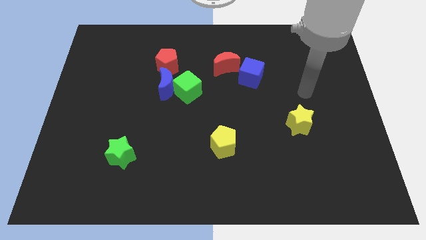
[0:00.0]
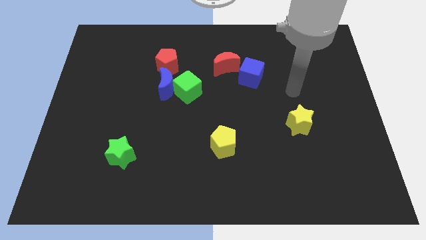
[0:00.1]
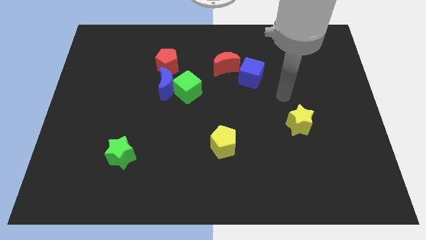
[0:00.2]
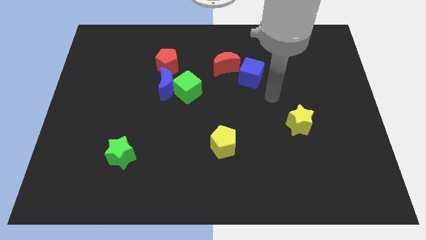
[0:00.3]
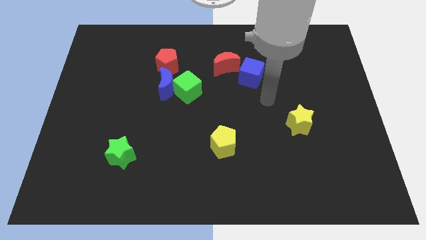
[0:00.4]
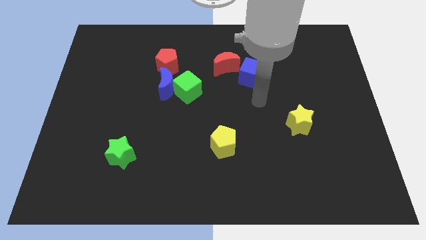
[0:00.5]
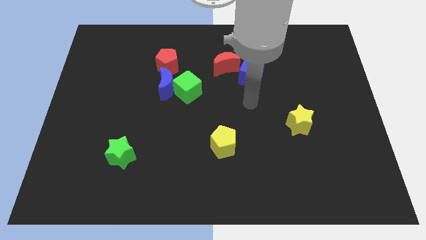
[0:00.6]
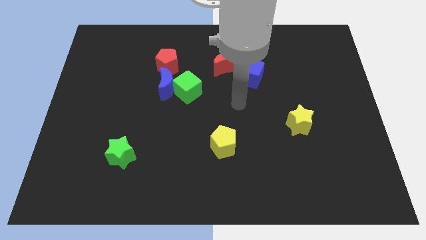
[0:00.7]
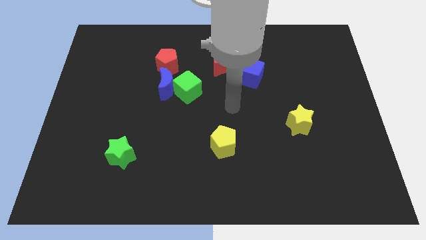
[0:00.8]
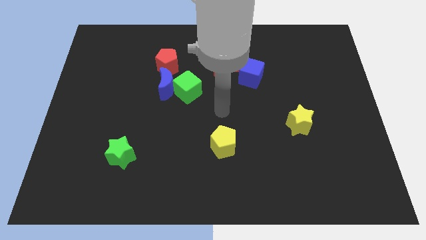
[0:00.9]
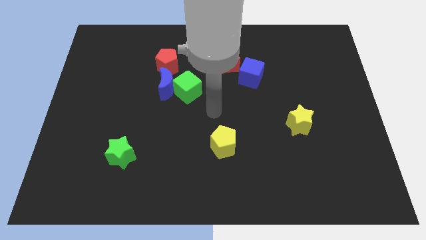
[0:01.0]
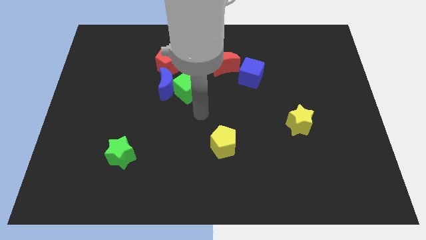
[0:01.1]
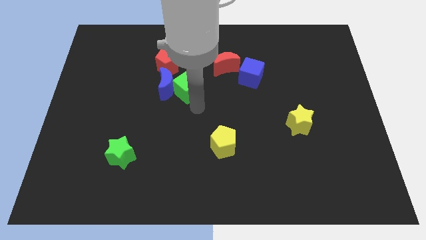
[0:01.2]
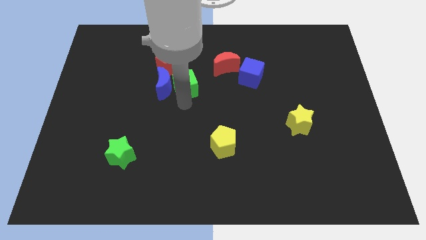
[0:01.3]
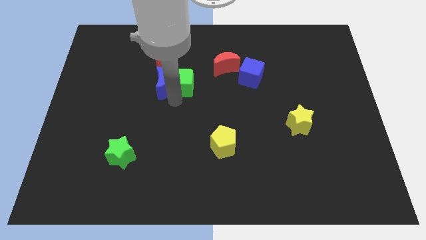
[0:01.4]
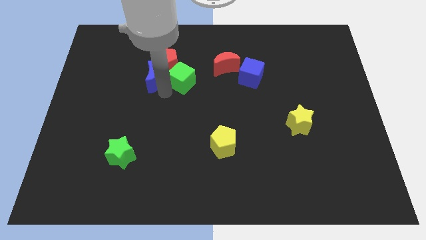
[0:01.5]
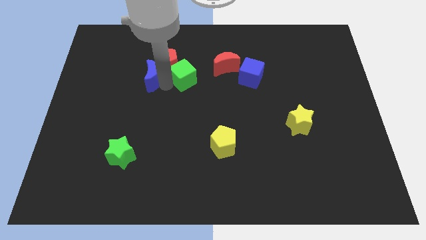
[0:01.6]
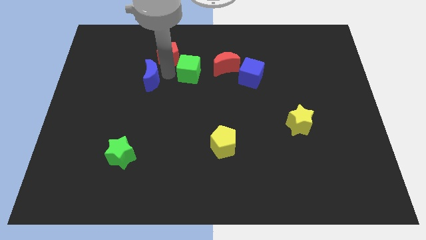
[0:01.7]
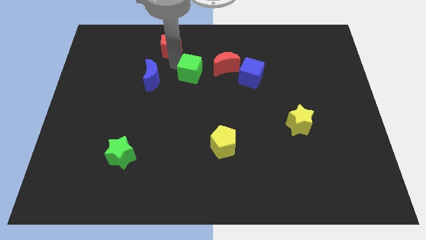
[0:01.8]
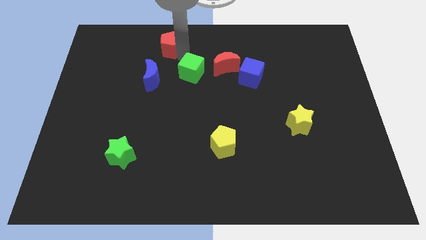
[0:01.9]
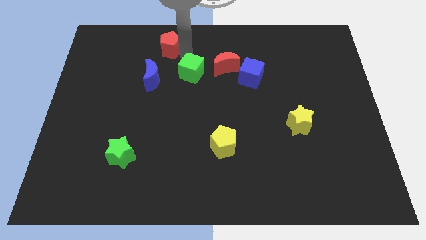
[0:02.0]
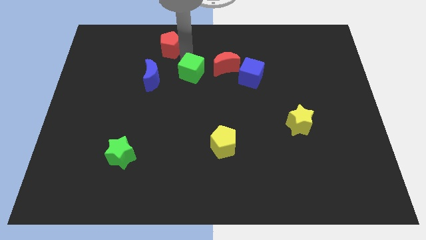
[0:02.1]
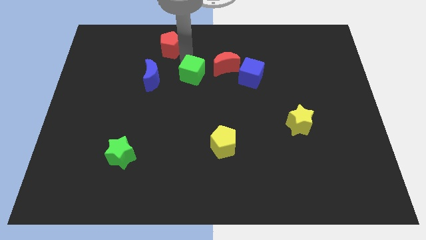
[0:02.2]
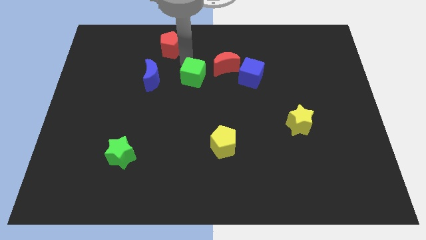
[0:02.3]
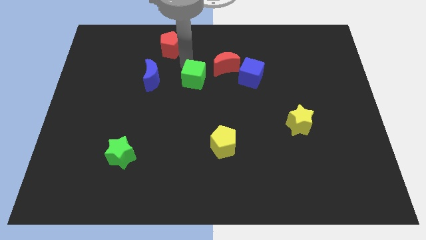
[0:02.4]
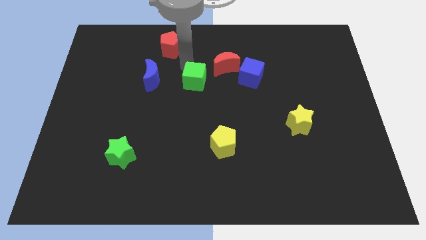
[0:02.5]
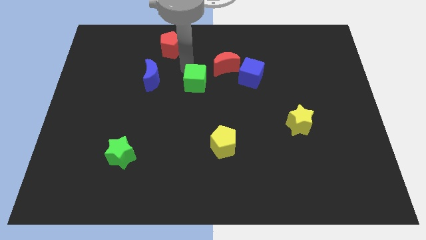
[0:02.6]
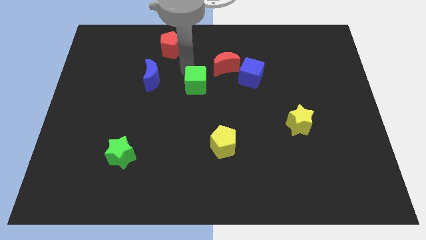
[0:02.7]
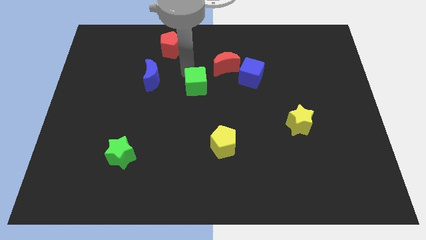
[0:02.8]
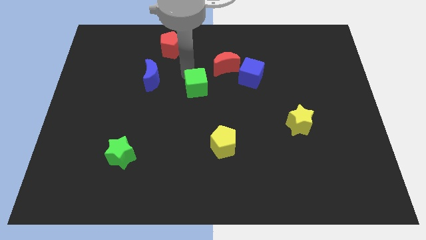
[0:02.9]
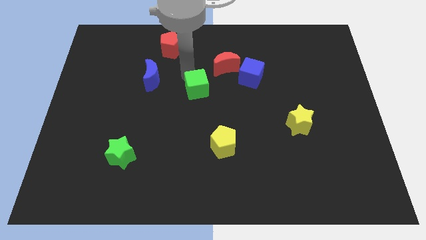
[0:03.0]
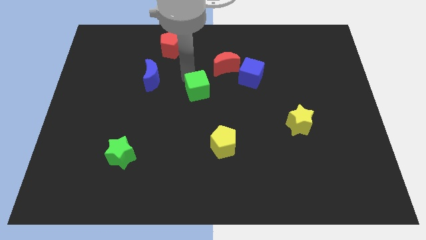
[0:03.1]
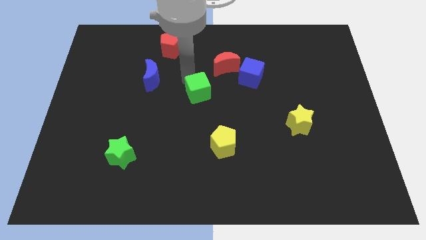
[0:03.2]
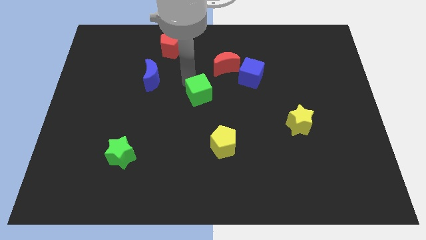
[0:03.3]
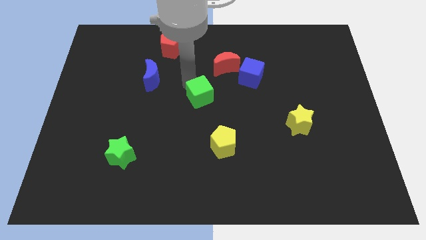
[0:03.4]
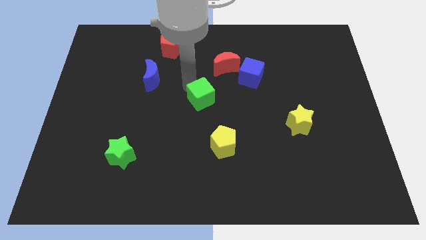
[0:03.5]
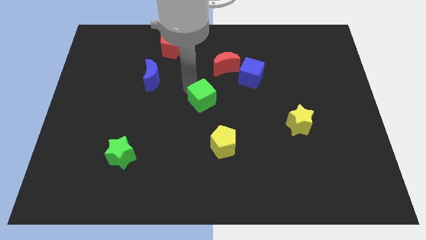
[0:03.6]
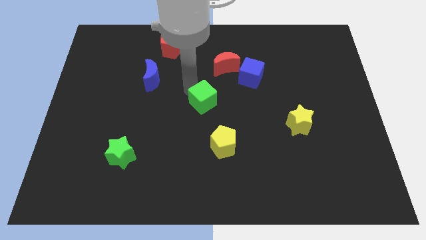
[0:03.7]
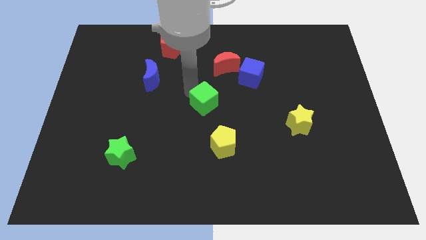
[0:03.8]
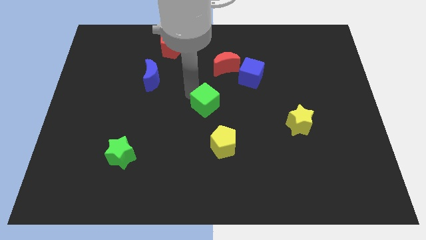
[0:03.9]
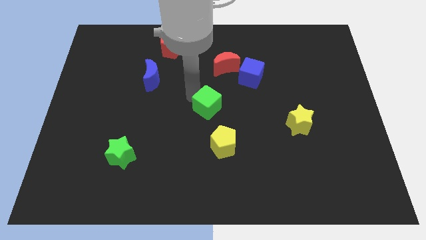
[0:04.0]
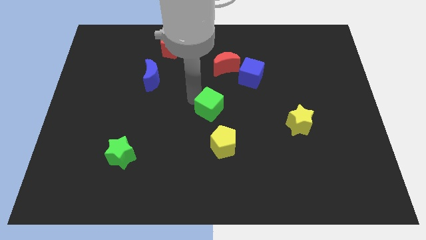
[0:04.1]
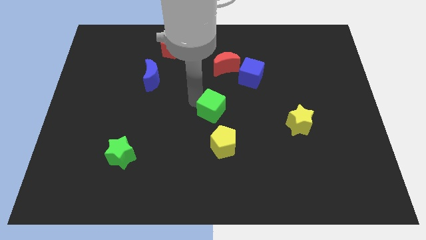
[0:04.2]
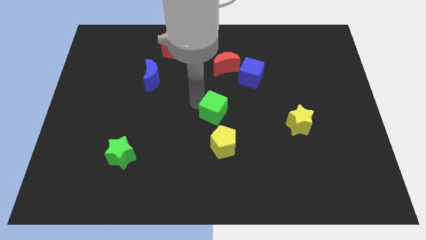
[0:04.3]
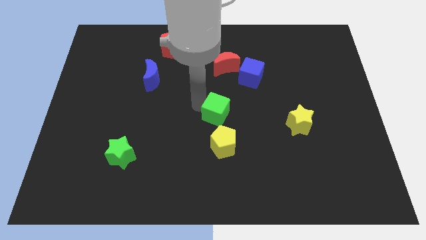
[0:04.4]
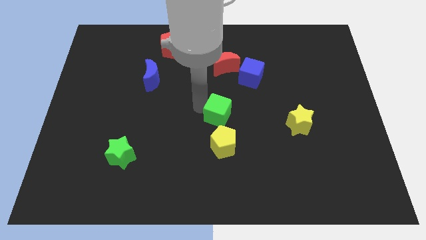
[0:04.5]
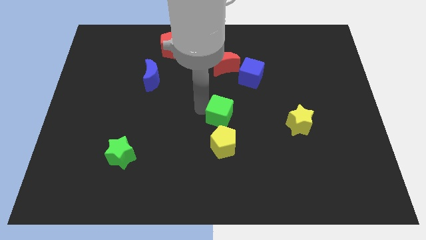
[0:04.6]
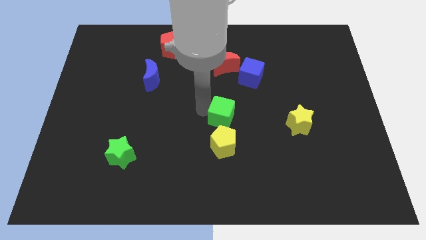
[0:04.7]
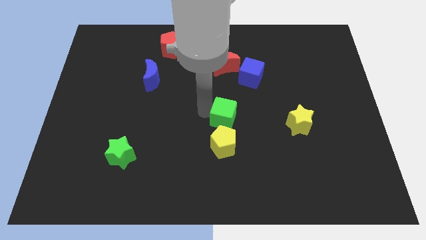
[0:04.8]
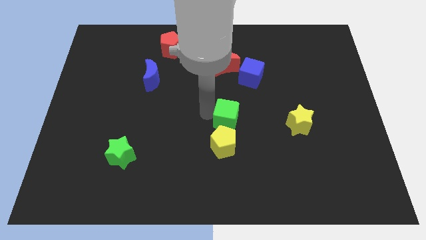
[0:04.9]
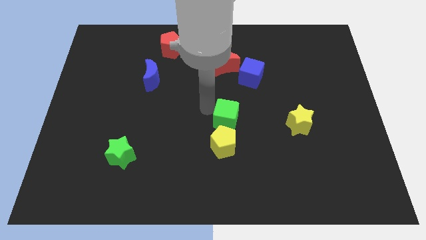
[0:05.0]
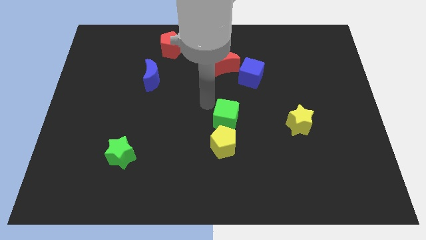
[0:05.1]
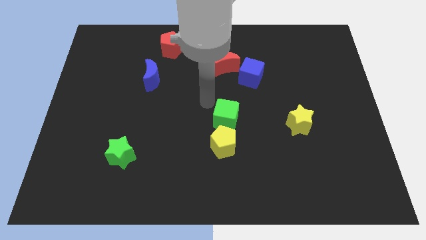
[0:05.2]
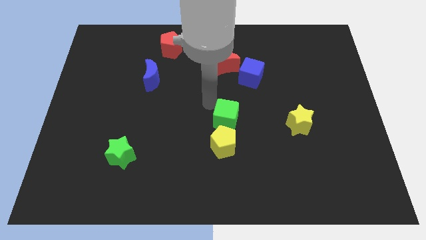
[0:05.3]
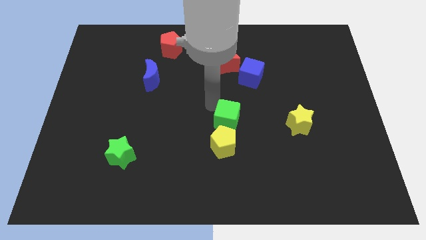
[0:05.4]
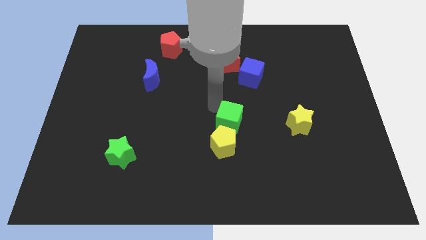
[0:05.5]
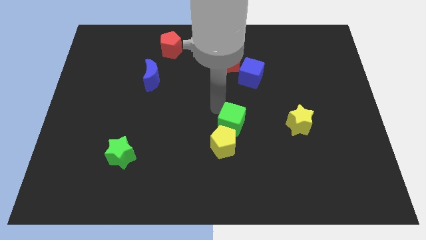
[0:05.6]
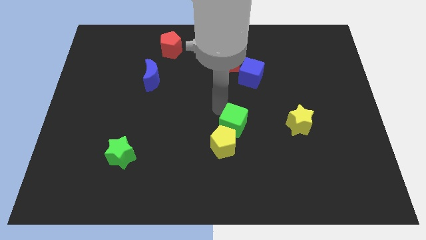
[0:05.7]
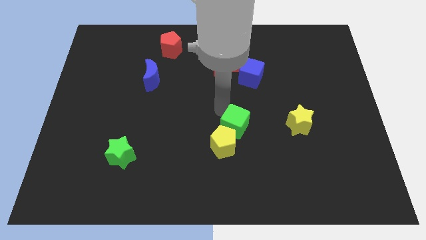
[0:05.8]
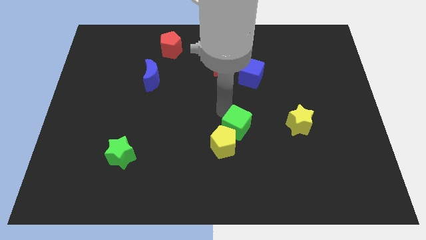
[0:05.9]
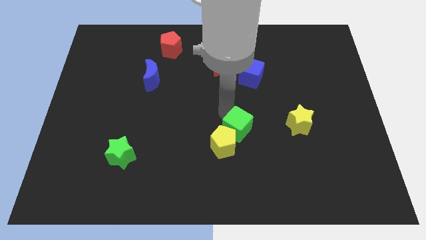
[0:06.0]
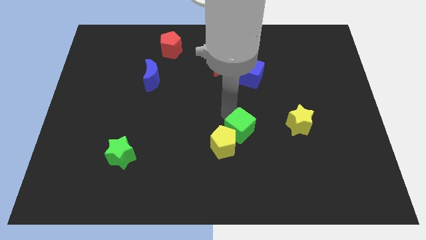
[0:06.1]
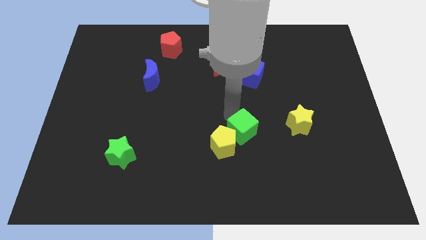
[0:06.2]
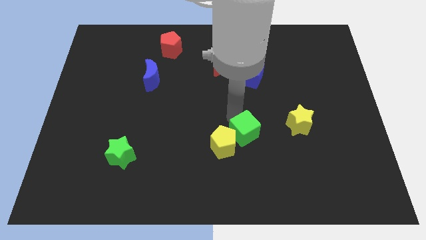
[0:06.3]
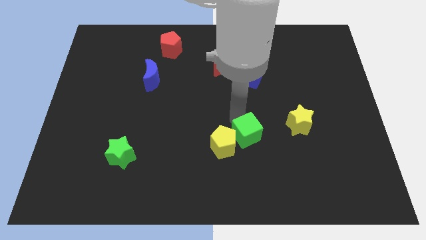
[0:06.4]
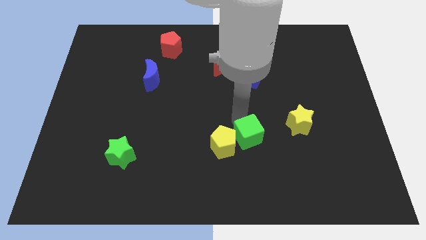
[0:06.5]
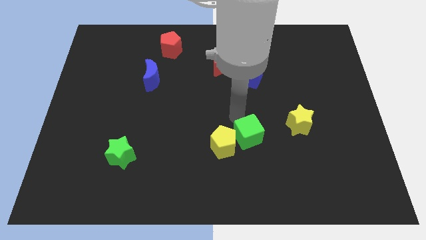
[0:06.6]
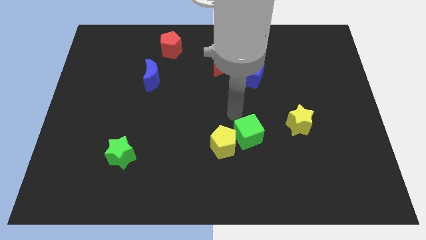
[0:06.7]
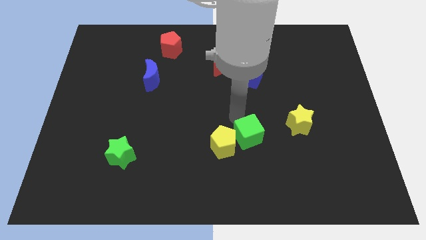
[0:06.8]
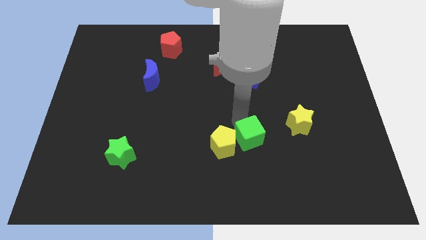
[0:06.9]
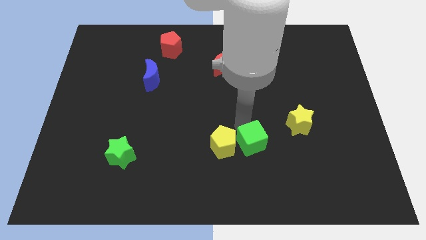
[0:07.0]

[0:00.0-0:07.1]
move the green cube downwards and then to the right

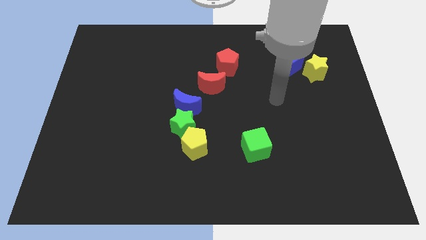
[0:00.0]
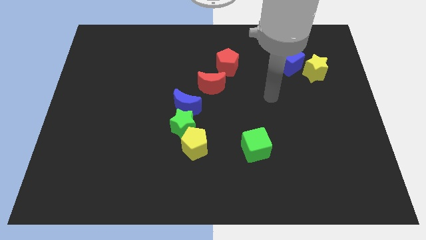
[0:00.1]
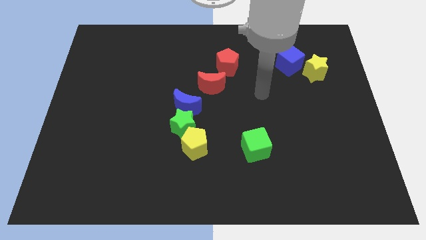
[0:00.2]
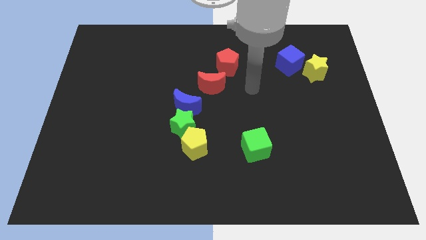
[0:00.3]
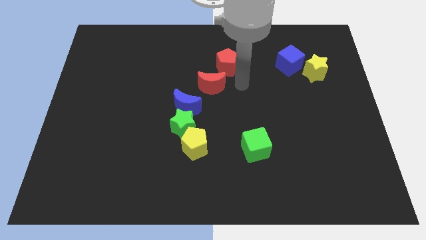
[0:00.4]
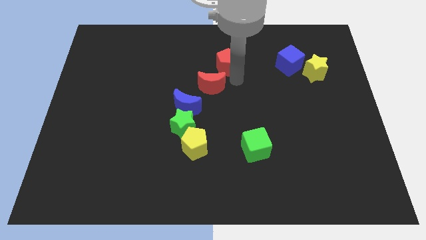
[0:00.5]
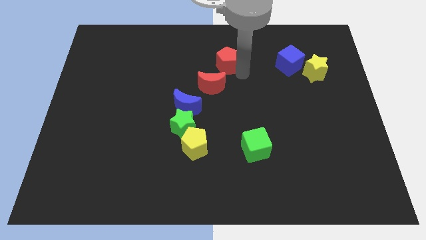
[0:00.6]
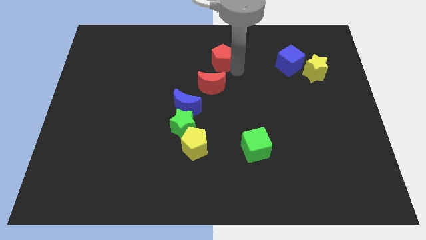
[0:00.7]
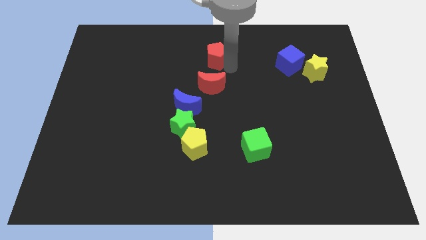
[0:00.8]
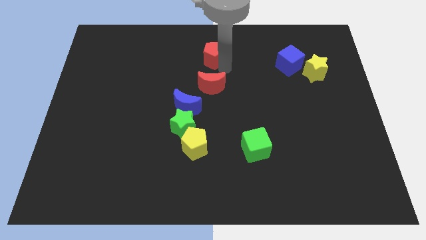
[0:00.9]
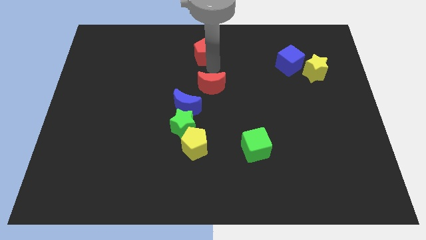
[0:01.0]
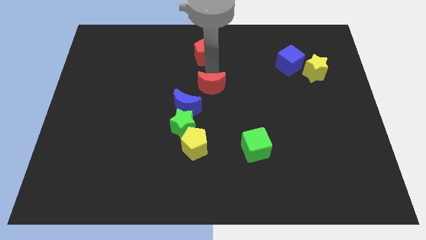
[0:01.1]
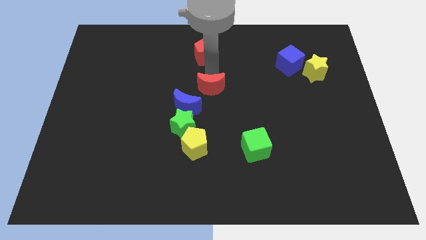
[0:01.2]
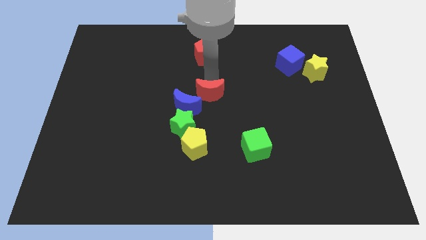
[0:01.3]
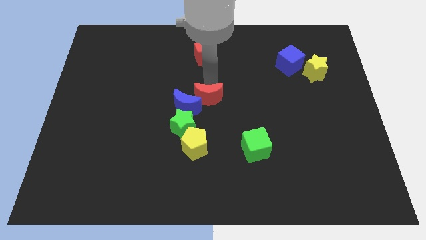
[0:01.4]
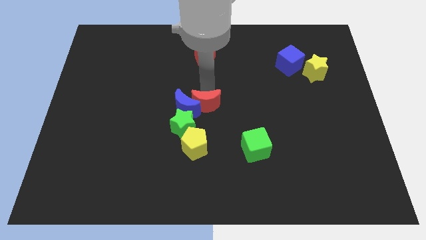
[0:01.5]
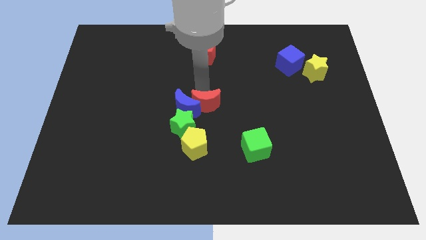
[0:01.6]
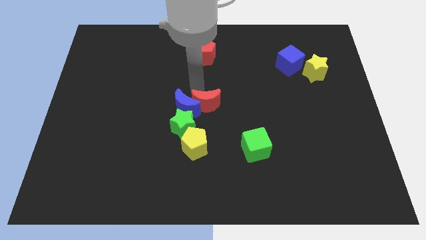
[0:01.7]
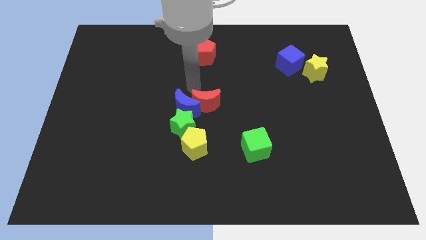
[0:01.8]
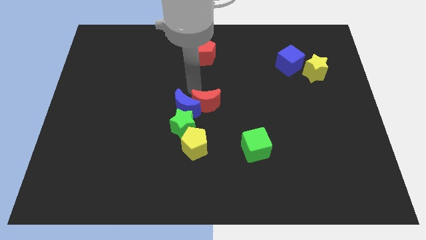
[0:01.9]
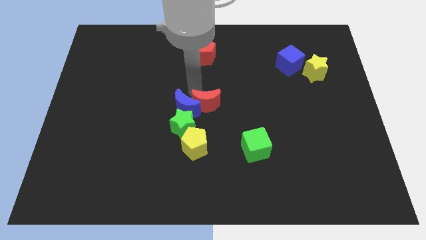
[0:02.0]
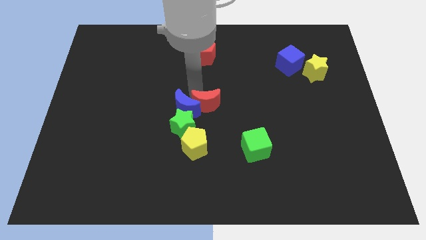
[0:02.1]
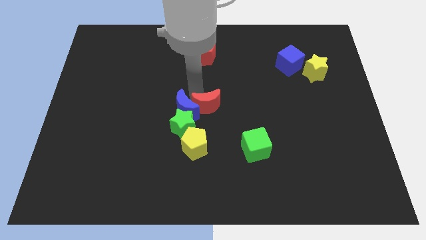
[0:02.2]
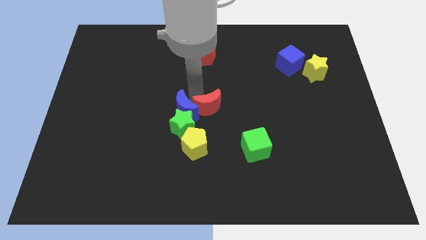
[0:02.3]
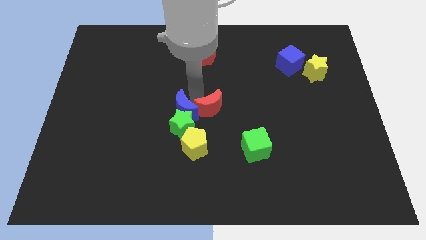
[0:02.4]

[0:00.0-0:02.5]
push the red moon slightly down
